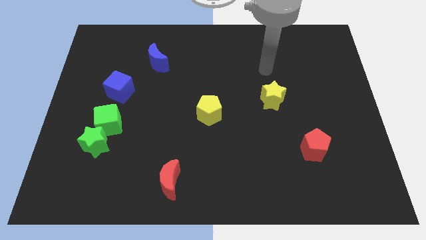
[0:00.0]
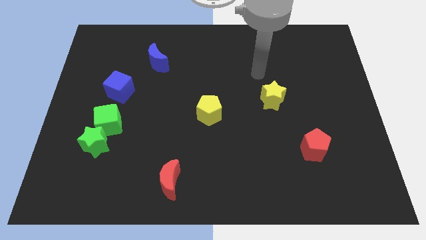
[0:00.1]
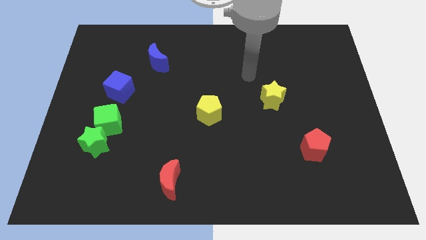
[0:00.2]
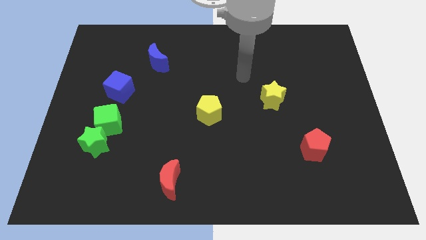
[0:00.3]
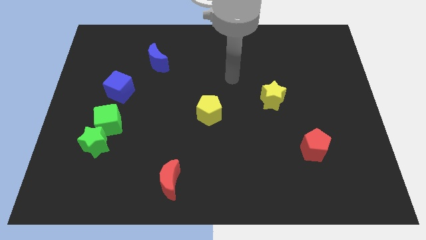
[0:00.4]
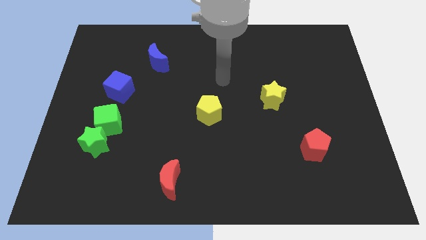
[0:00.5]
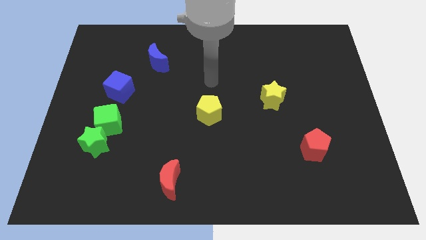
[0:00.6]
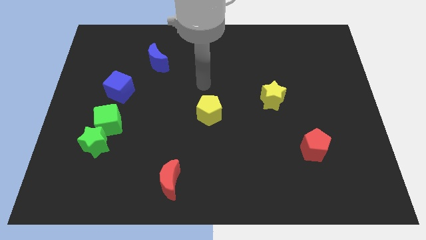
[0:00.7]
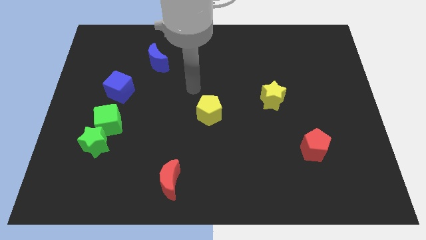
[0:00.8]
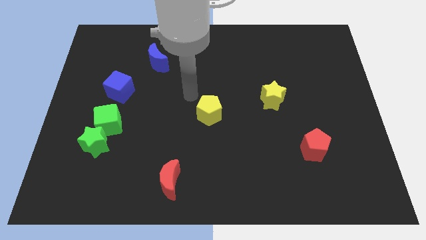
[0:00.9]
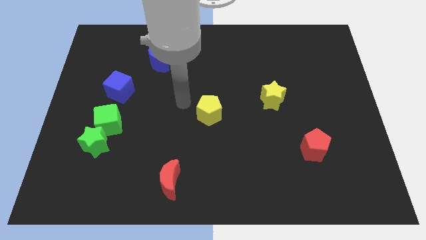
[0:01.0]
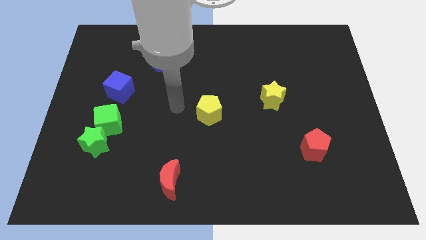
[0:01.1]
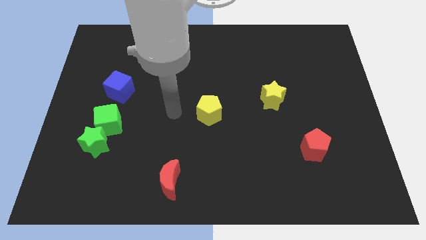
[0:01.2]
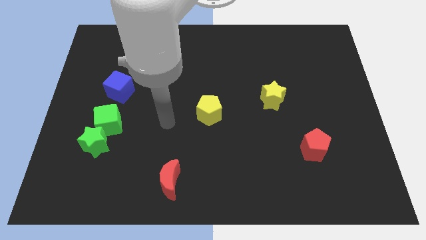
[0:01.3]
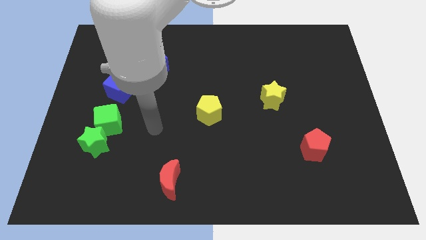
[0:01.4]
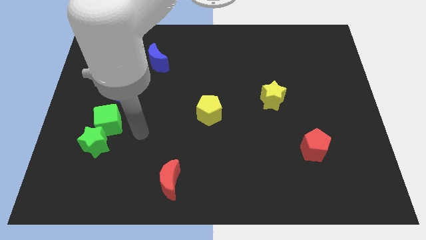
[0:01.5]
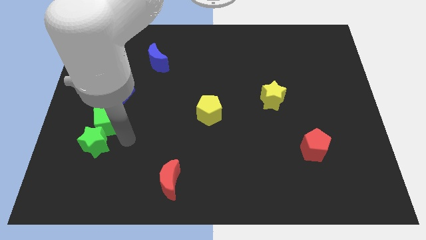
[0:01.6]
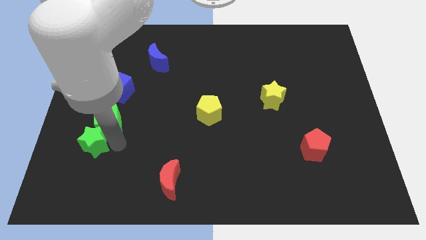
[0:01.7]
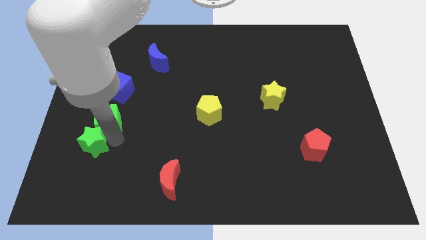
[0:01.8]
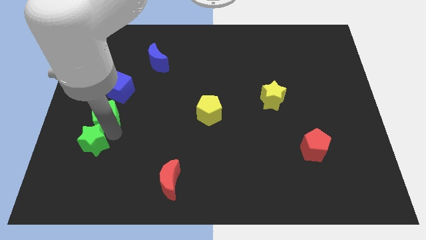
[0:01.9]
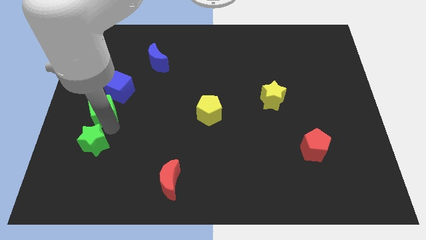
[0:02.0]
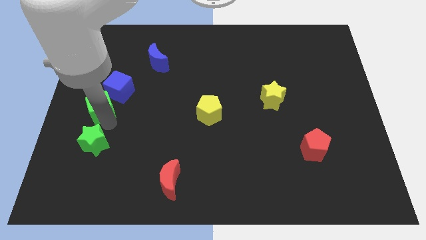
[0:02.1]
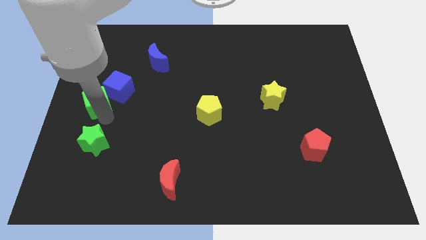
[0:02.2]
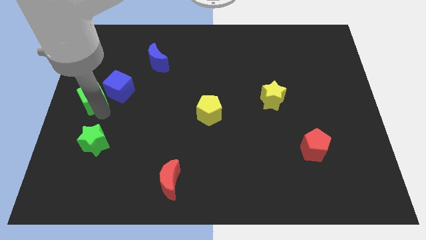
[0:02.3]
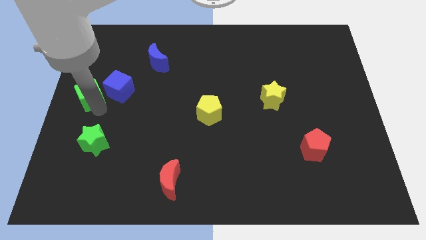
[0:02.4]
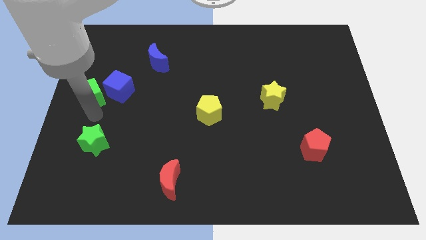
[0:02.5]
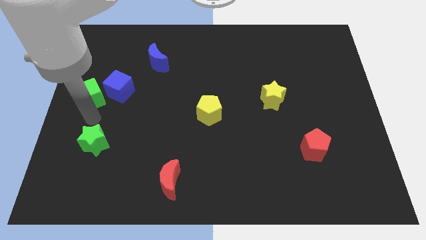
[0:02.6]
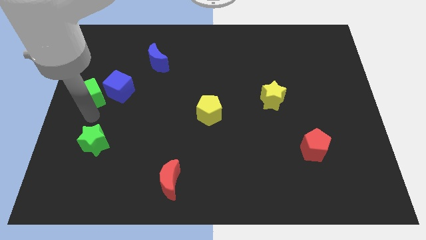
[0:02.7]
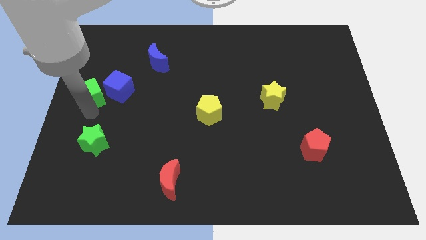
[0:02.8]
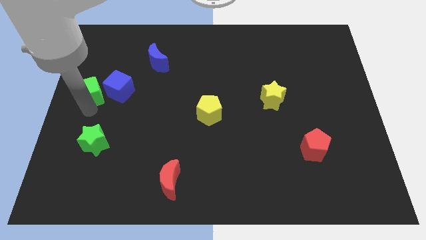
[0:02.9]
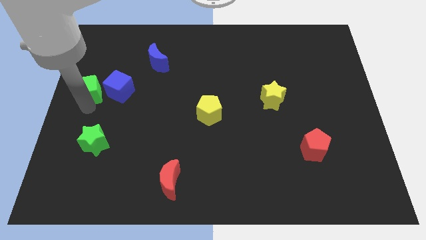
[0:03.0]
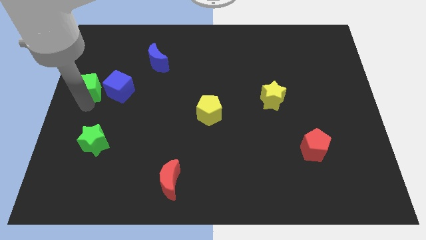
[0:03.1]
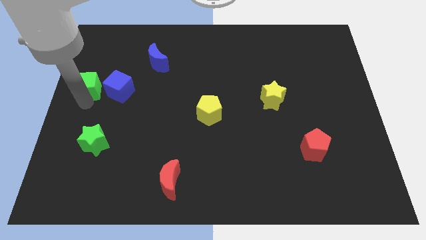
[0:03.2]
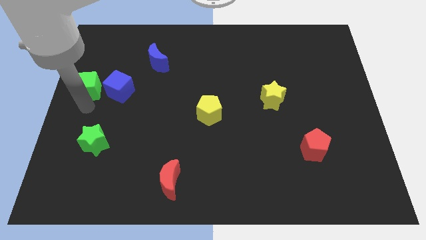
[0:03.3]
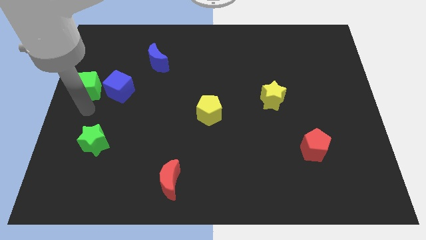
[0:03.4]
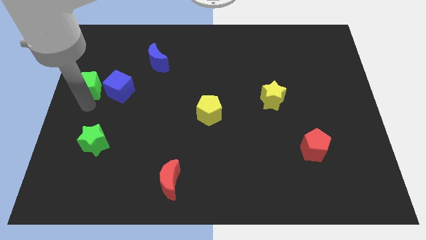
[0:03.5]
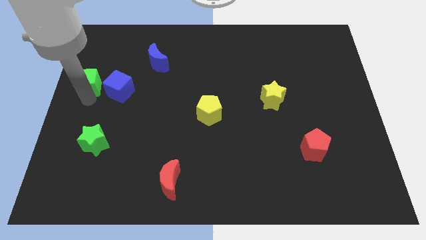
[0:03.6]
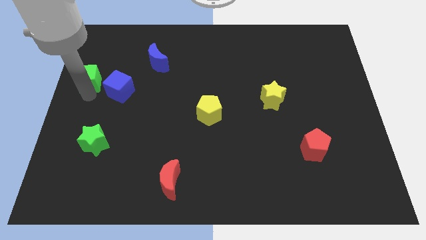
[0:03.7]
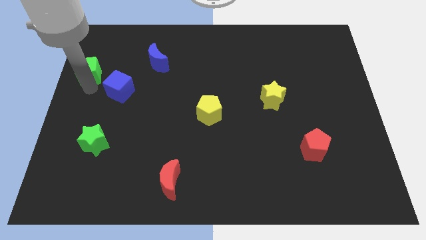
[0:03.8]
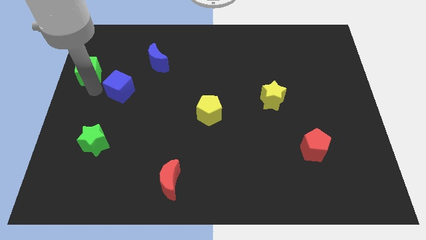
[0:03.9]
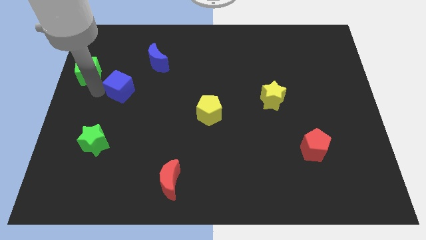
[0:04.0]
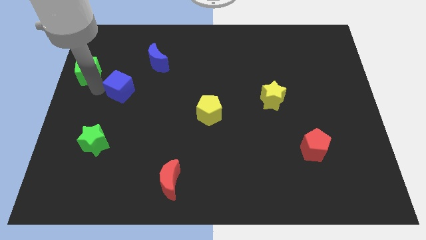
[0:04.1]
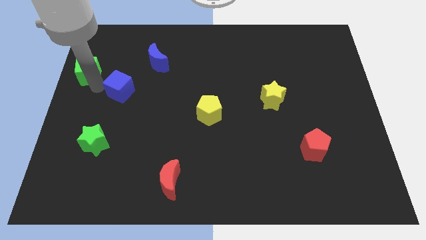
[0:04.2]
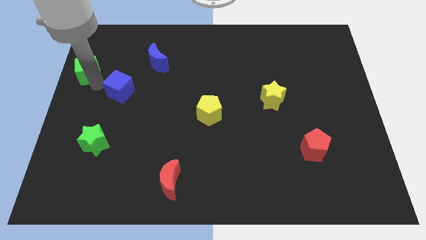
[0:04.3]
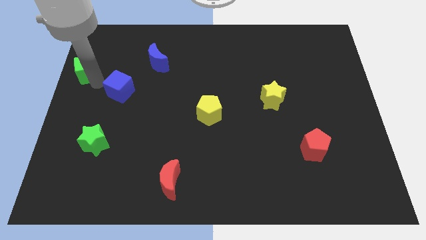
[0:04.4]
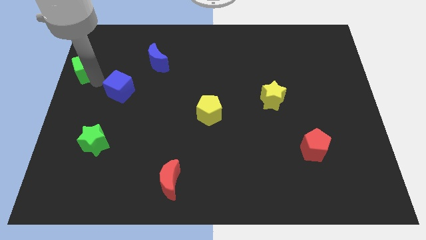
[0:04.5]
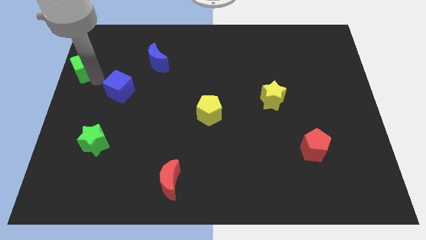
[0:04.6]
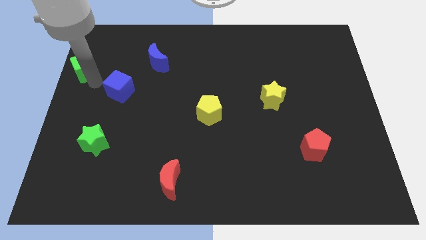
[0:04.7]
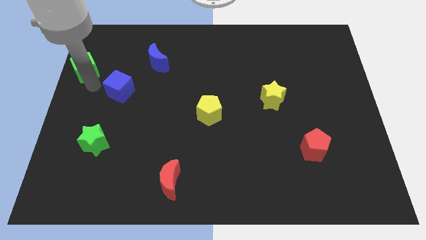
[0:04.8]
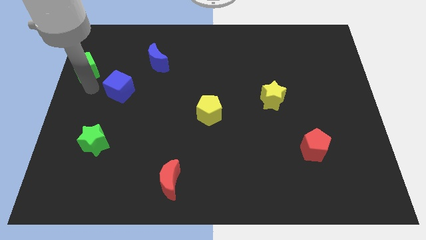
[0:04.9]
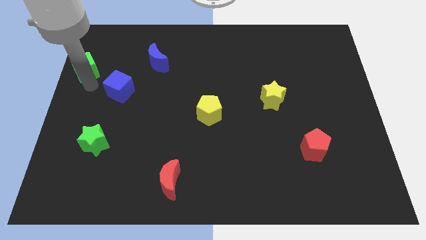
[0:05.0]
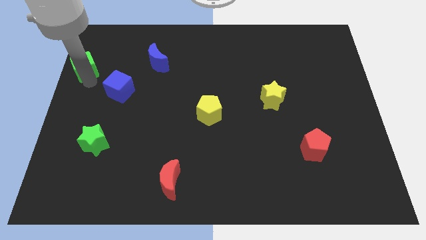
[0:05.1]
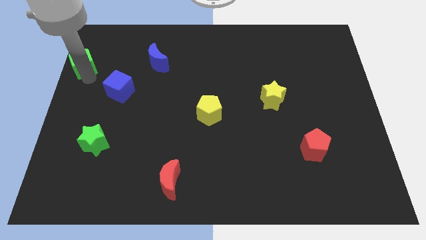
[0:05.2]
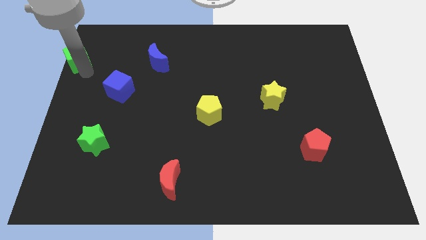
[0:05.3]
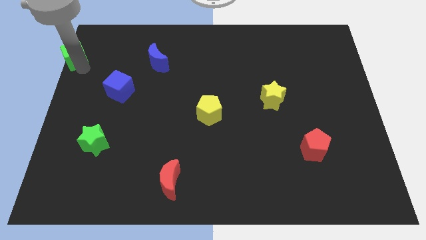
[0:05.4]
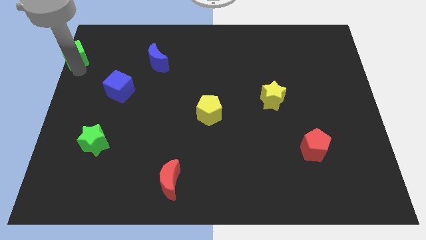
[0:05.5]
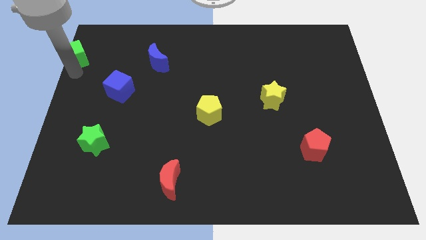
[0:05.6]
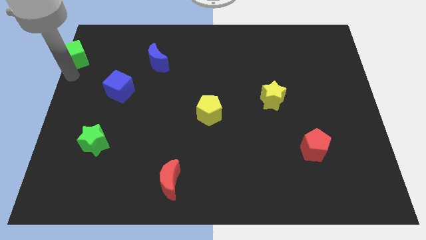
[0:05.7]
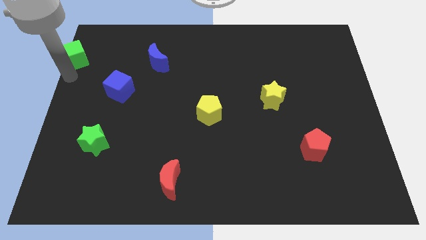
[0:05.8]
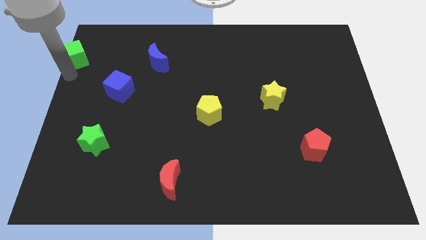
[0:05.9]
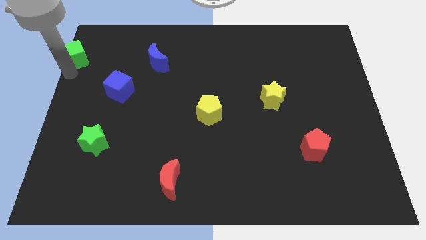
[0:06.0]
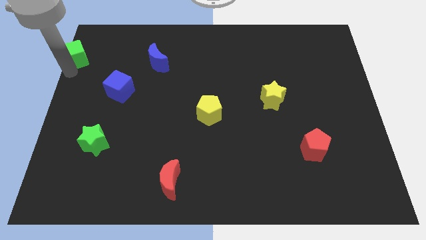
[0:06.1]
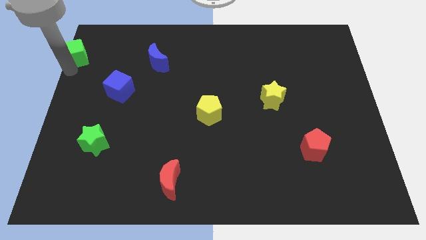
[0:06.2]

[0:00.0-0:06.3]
slide the green cube to the top left
